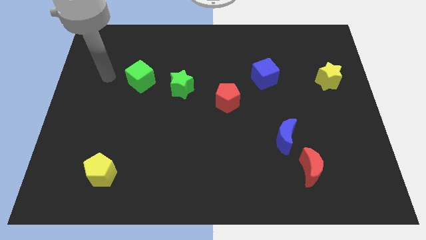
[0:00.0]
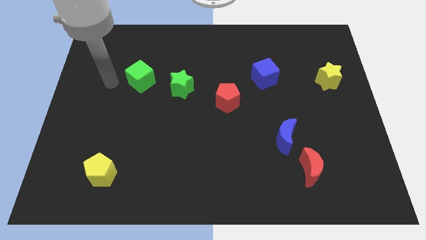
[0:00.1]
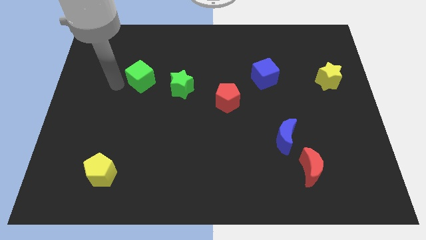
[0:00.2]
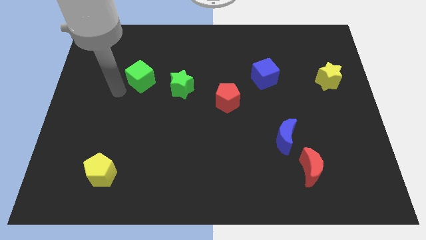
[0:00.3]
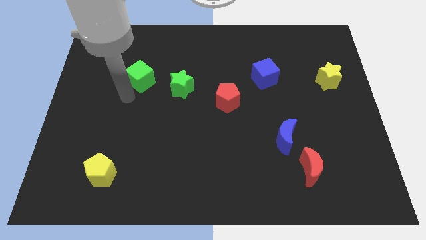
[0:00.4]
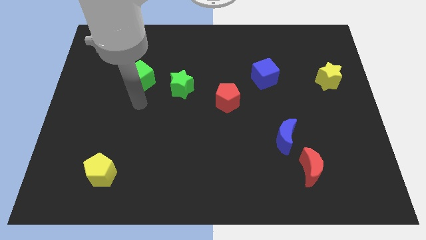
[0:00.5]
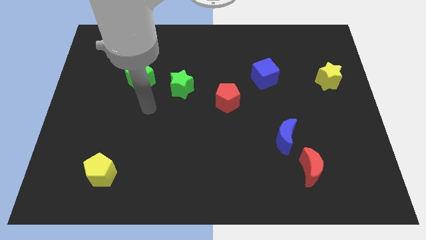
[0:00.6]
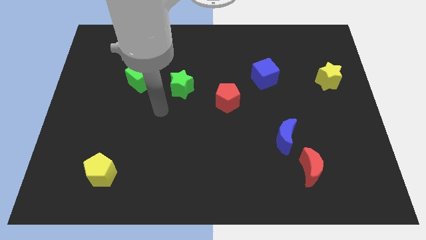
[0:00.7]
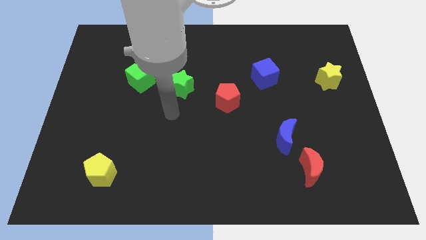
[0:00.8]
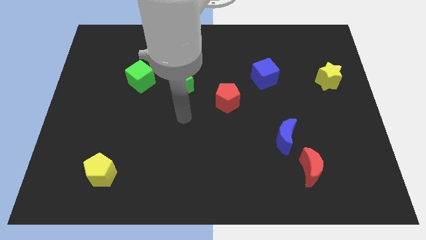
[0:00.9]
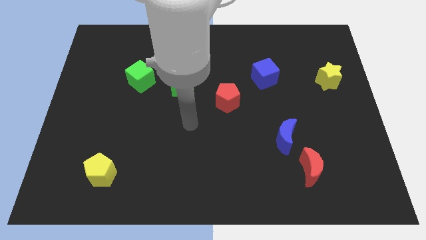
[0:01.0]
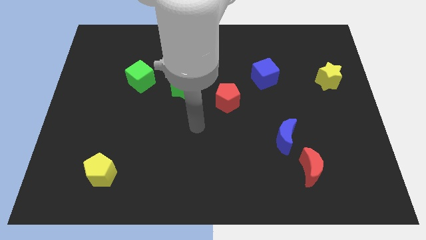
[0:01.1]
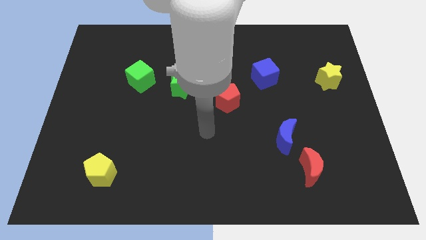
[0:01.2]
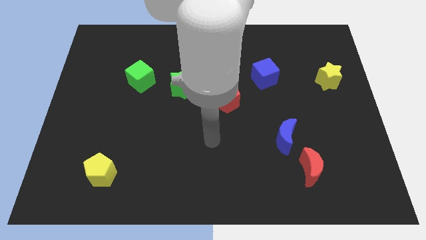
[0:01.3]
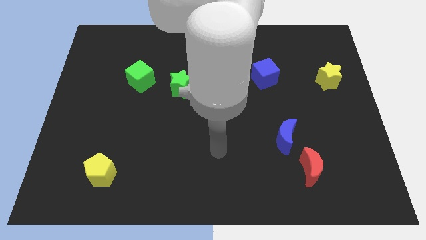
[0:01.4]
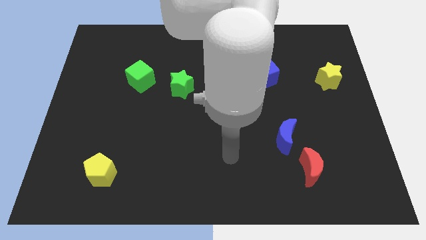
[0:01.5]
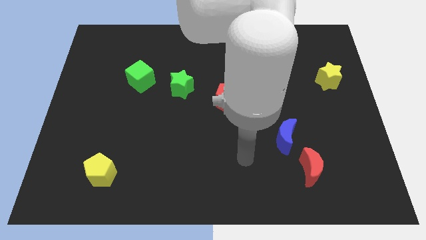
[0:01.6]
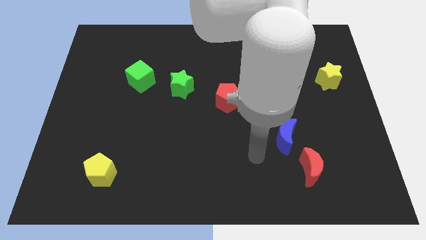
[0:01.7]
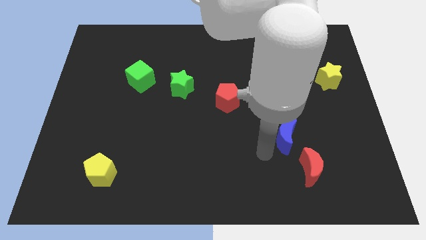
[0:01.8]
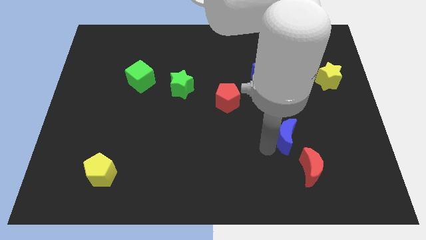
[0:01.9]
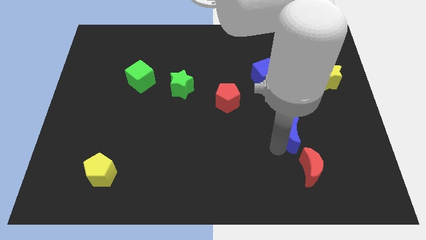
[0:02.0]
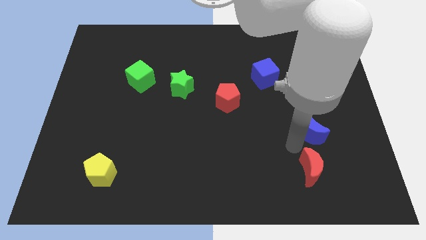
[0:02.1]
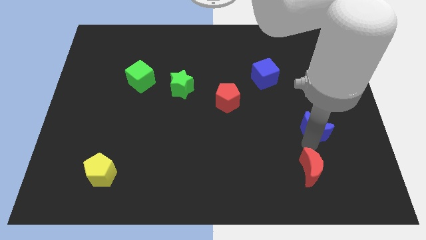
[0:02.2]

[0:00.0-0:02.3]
pull the red moon apart from the blue moon

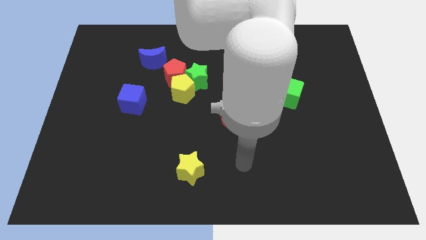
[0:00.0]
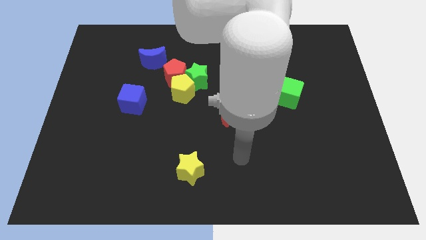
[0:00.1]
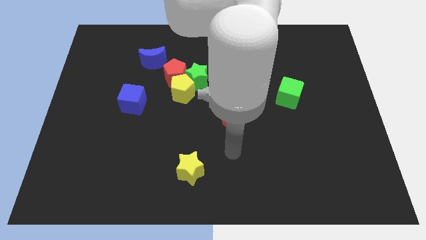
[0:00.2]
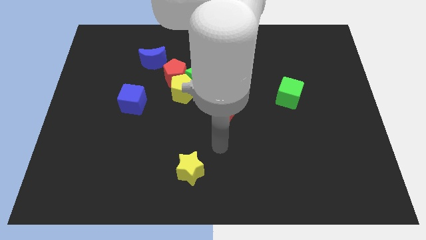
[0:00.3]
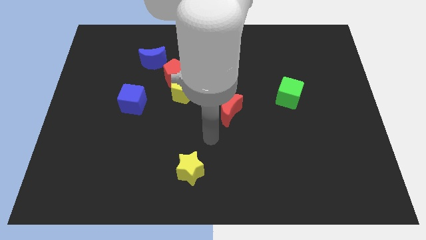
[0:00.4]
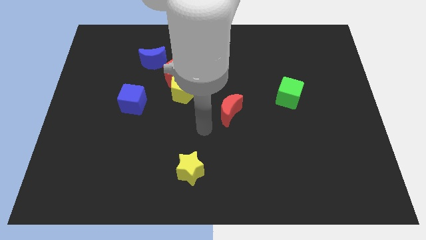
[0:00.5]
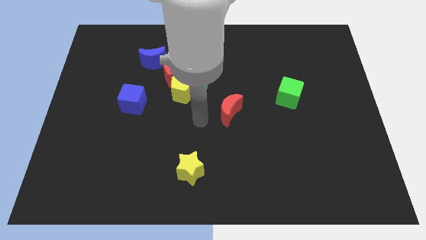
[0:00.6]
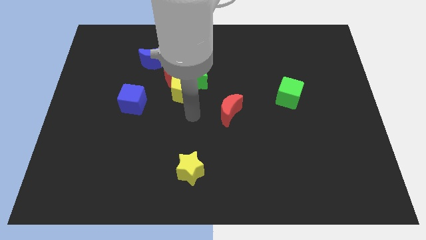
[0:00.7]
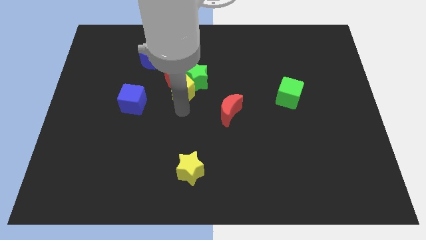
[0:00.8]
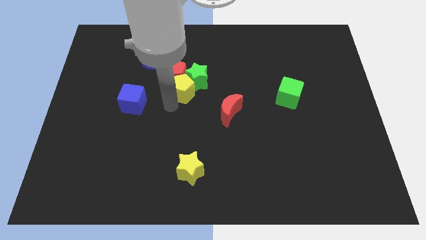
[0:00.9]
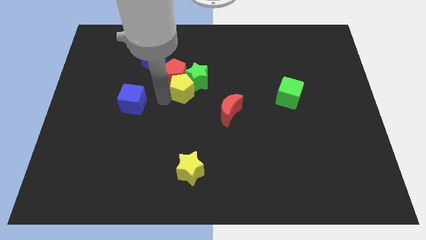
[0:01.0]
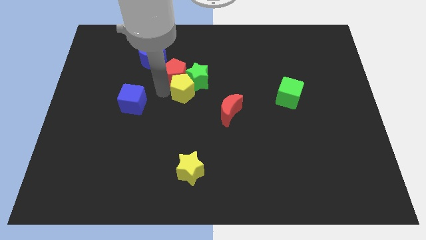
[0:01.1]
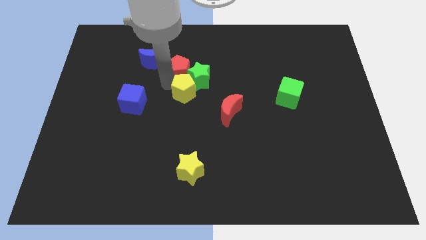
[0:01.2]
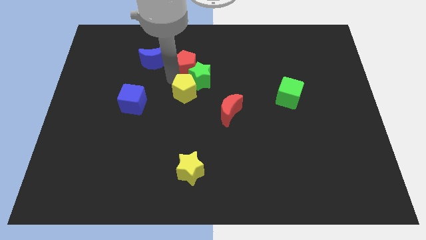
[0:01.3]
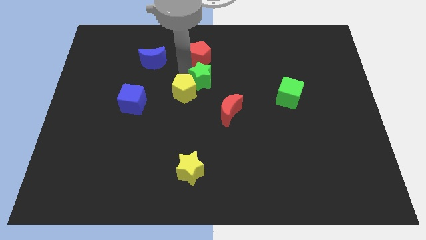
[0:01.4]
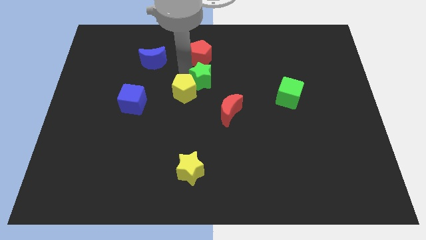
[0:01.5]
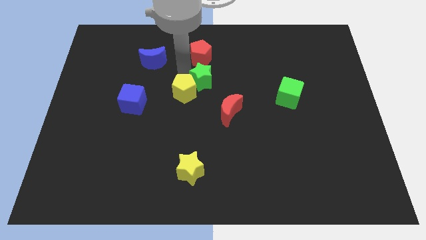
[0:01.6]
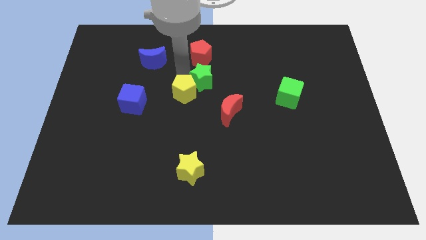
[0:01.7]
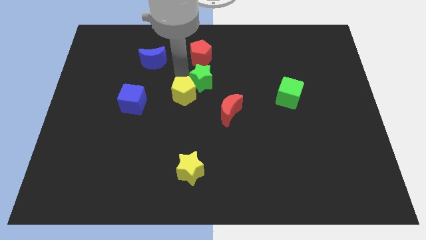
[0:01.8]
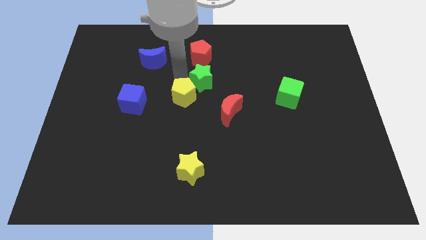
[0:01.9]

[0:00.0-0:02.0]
pull the yellow pentagon apart from the green star and red pentagon

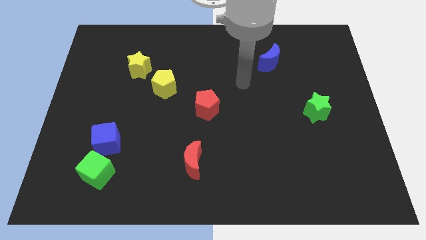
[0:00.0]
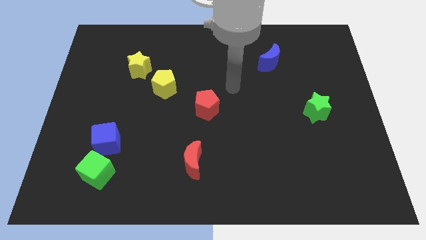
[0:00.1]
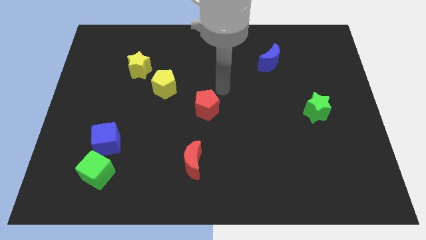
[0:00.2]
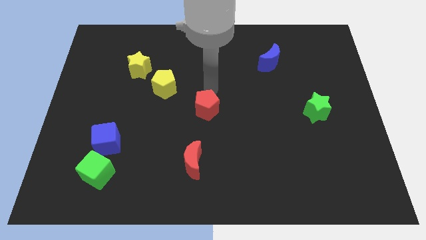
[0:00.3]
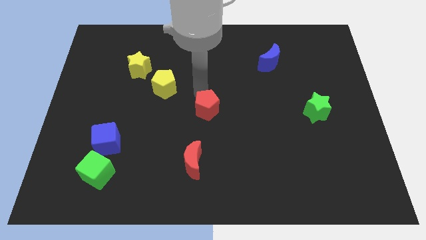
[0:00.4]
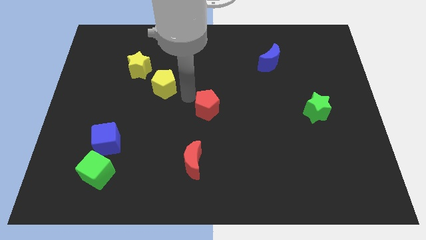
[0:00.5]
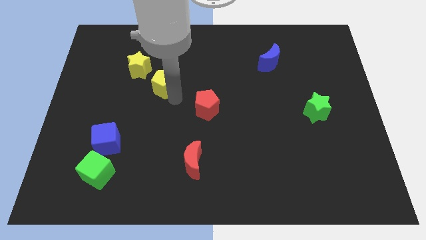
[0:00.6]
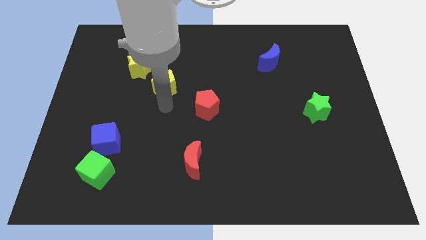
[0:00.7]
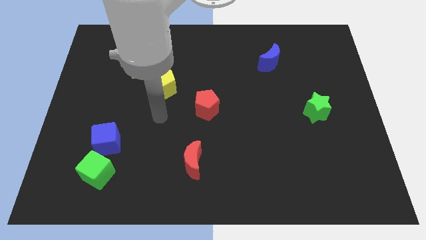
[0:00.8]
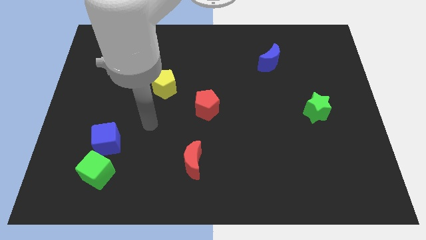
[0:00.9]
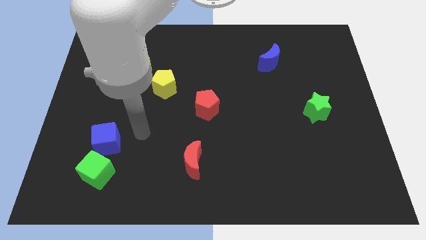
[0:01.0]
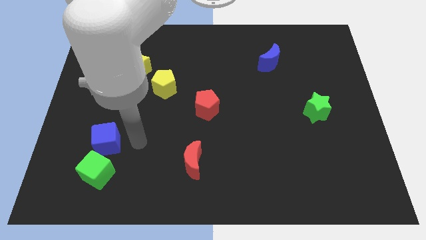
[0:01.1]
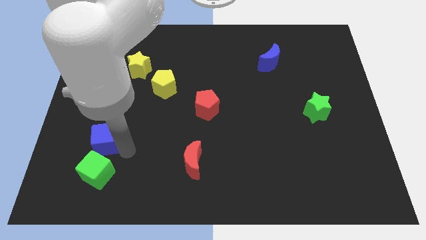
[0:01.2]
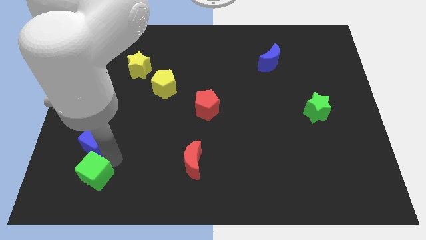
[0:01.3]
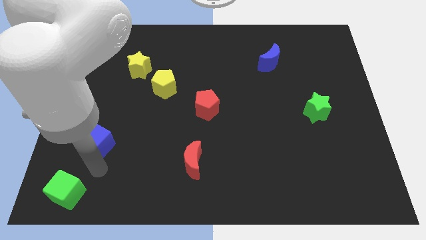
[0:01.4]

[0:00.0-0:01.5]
move the blue cube away from the green cube

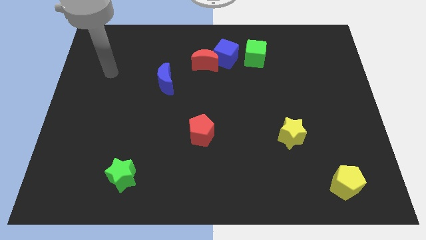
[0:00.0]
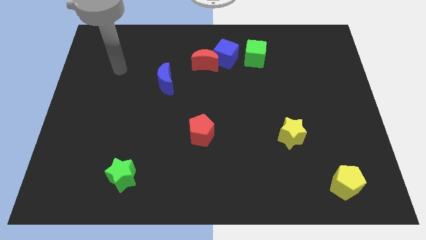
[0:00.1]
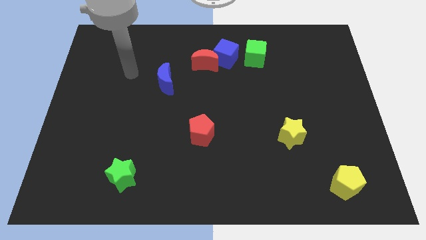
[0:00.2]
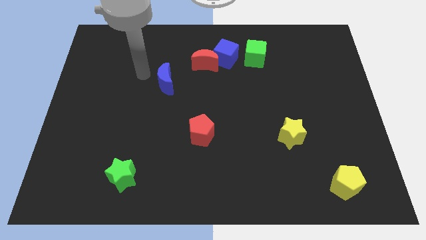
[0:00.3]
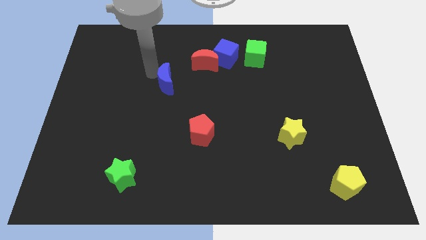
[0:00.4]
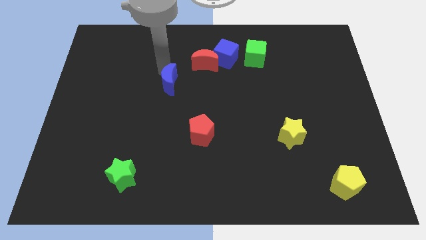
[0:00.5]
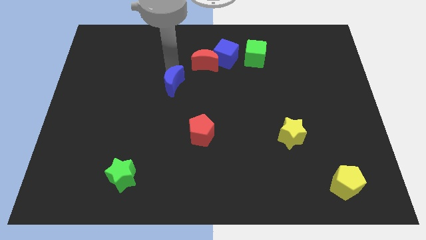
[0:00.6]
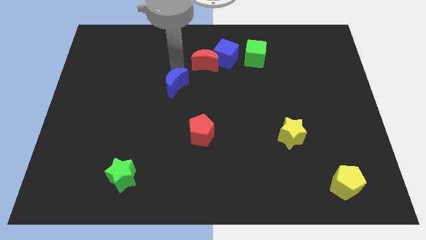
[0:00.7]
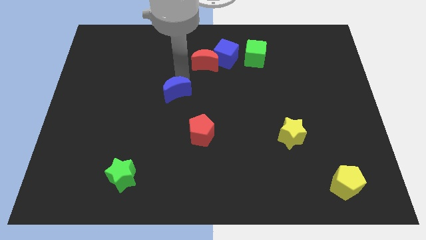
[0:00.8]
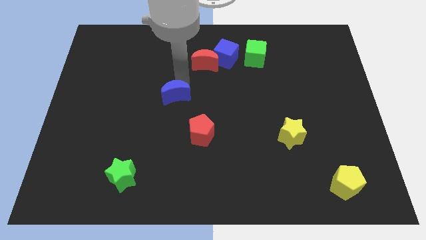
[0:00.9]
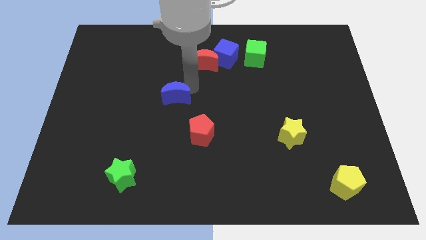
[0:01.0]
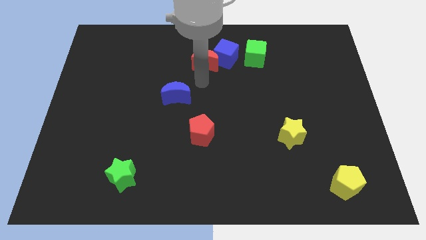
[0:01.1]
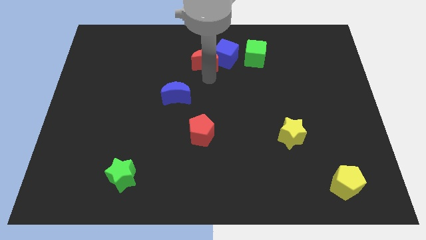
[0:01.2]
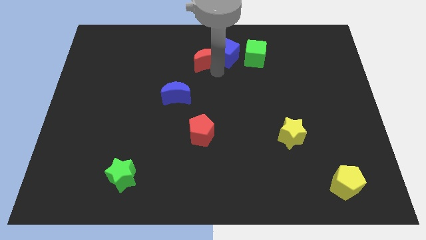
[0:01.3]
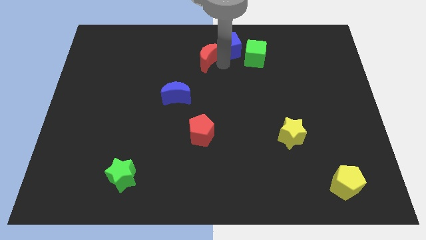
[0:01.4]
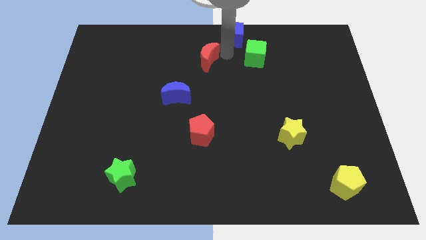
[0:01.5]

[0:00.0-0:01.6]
pull the red moon apart from the blue cube

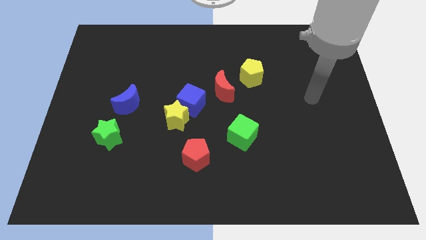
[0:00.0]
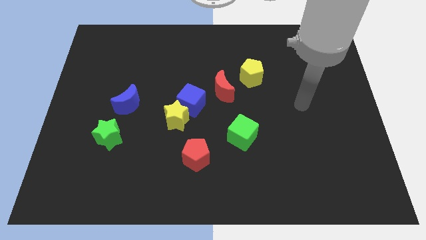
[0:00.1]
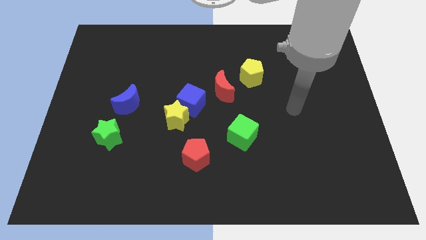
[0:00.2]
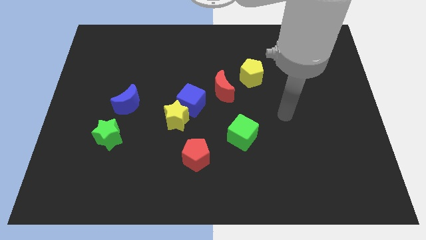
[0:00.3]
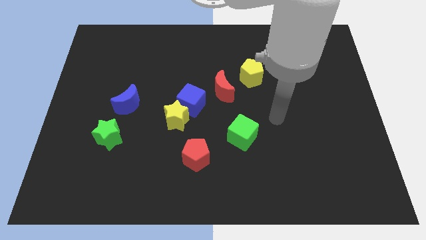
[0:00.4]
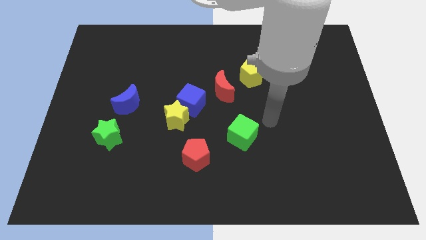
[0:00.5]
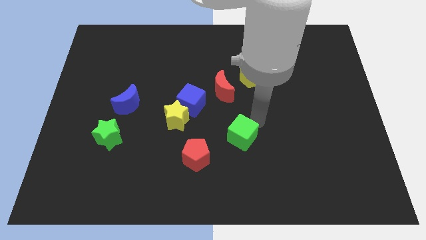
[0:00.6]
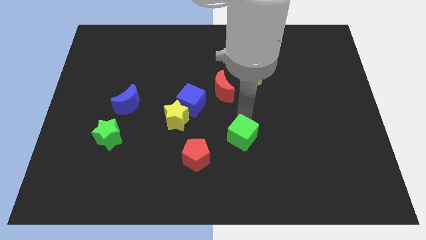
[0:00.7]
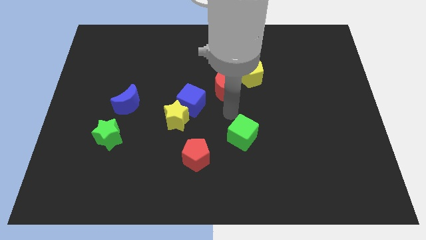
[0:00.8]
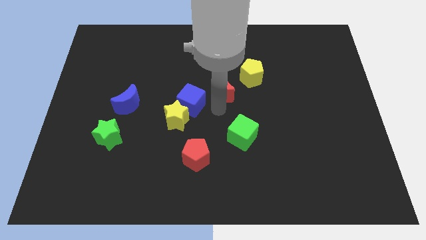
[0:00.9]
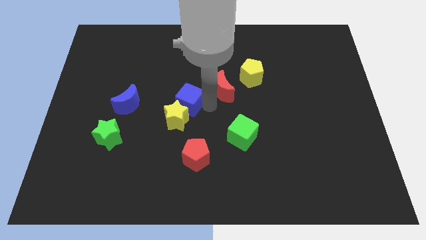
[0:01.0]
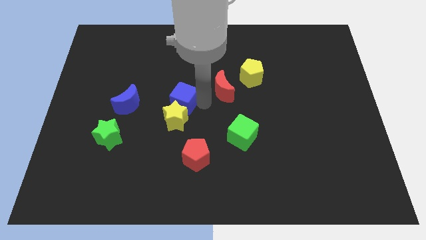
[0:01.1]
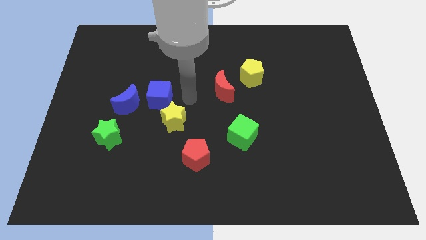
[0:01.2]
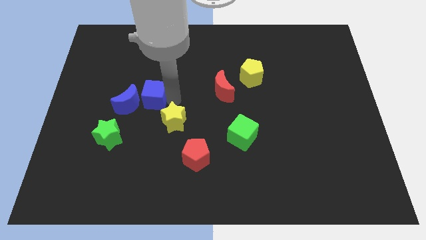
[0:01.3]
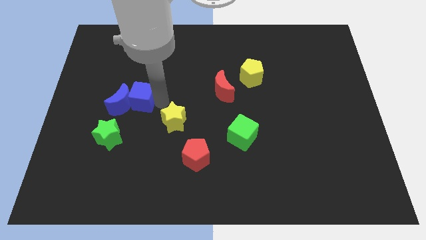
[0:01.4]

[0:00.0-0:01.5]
separate the yellow star from the blue cube

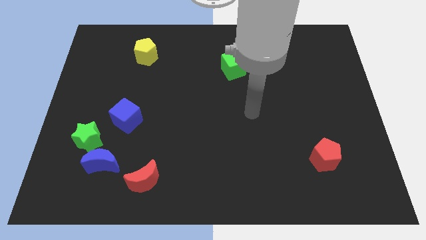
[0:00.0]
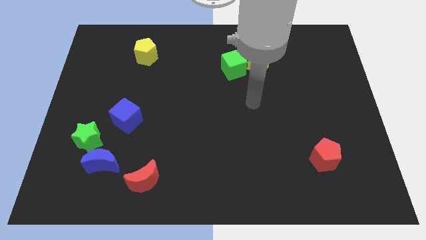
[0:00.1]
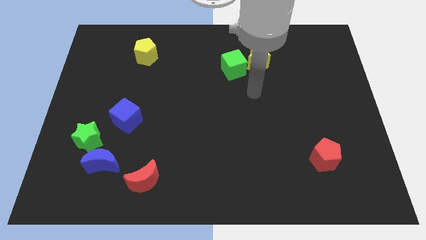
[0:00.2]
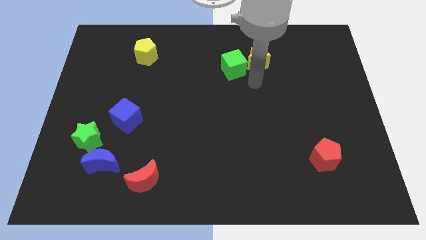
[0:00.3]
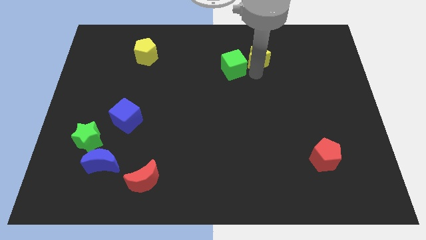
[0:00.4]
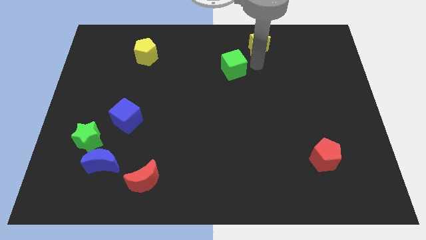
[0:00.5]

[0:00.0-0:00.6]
pull the green cube apart from the yellow star
